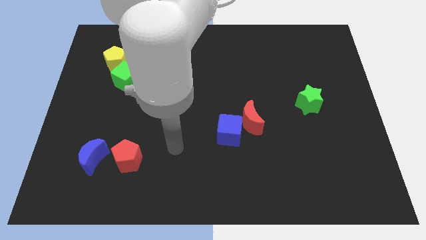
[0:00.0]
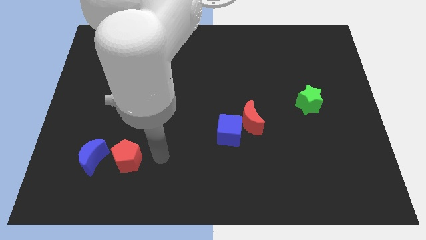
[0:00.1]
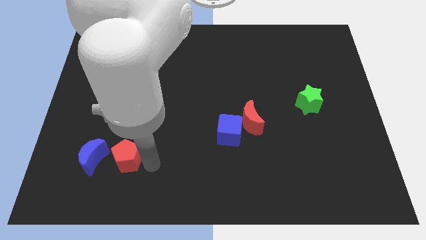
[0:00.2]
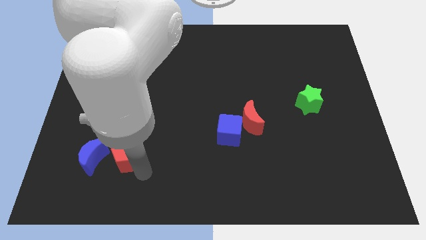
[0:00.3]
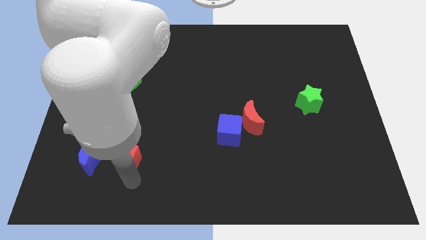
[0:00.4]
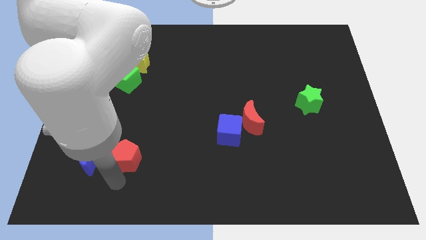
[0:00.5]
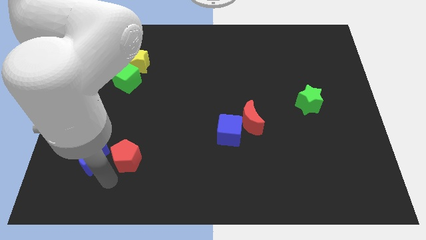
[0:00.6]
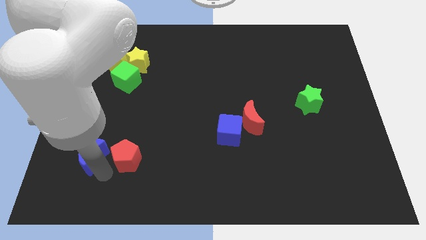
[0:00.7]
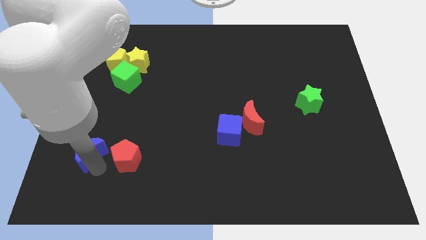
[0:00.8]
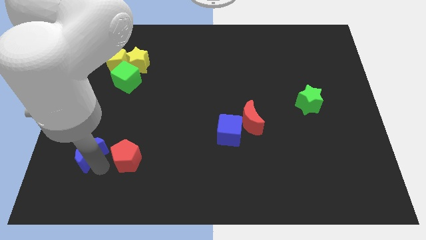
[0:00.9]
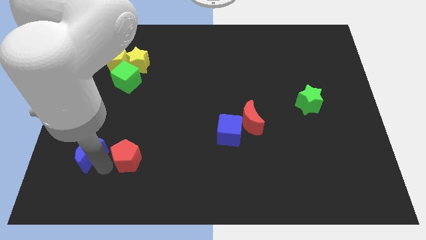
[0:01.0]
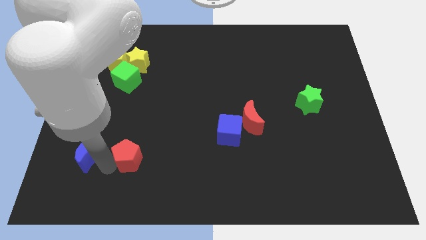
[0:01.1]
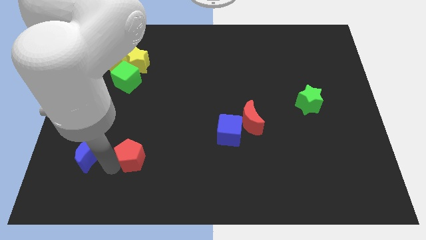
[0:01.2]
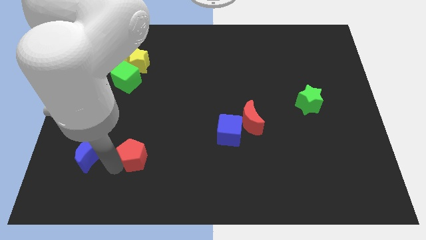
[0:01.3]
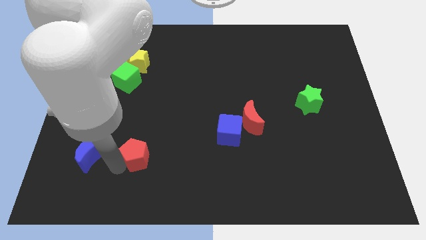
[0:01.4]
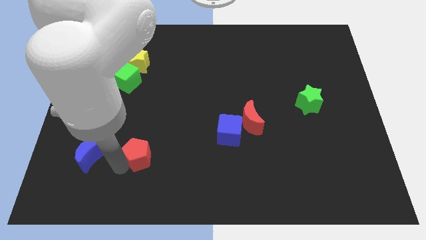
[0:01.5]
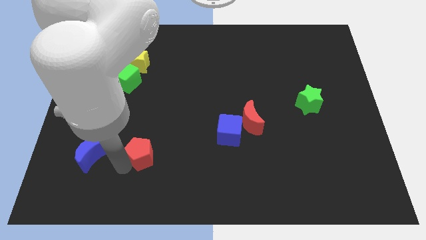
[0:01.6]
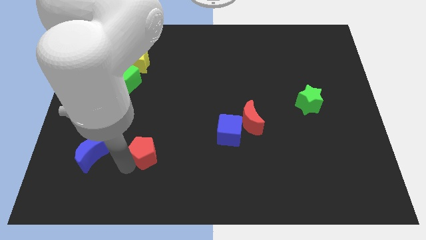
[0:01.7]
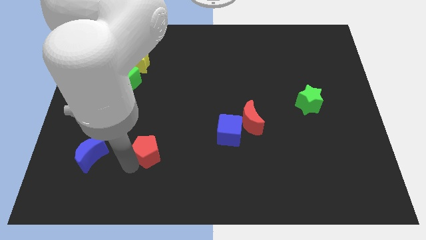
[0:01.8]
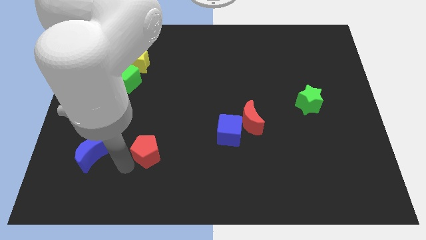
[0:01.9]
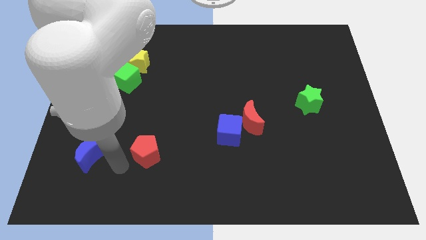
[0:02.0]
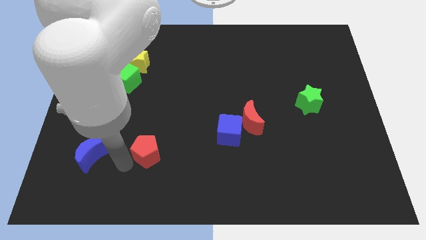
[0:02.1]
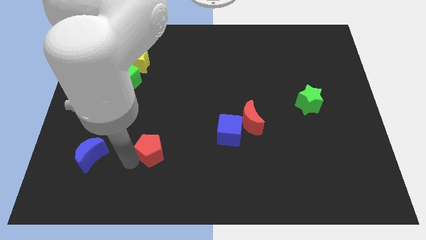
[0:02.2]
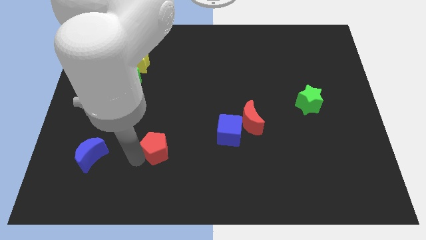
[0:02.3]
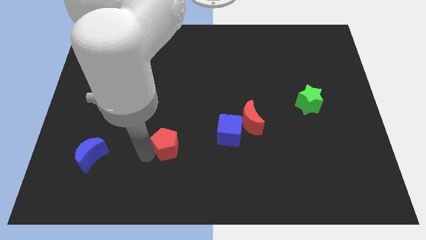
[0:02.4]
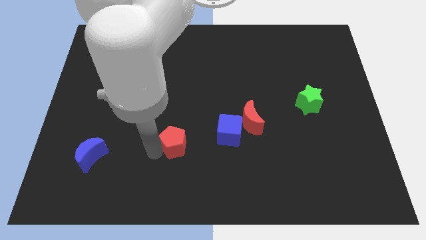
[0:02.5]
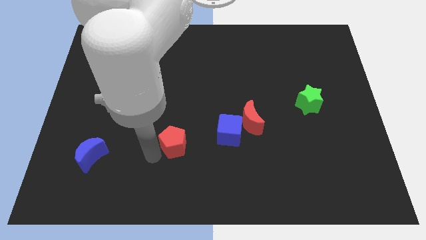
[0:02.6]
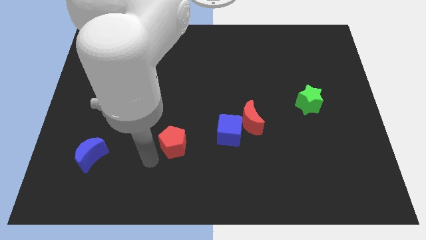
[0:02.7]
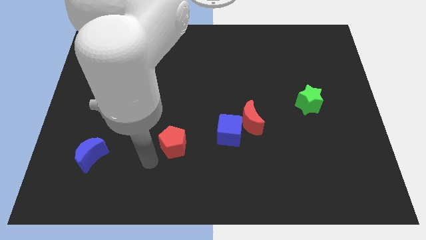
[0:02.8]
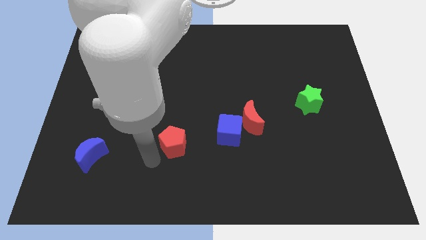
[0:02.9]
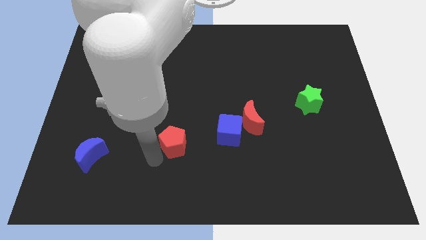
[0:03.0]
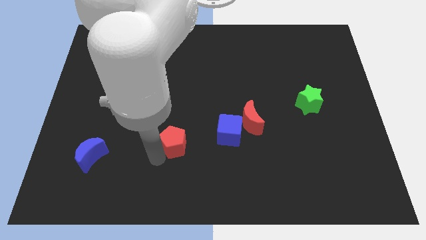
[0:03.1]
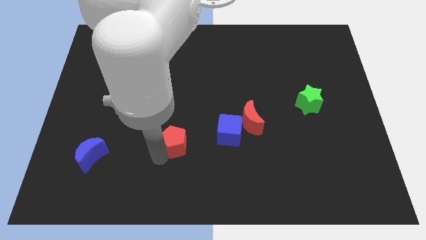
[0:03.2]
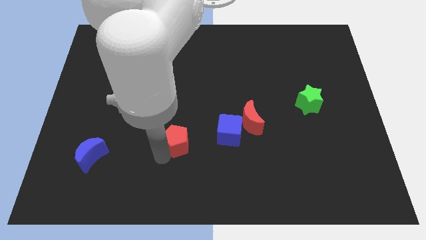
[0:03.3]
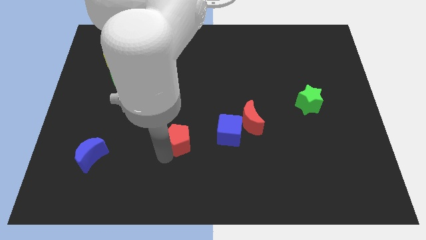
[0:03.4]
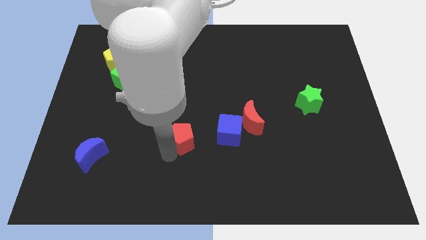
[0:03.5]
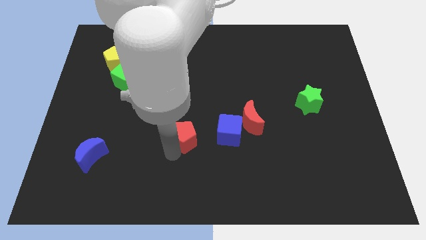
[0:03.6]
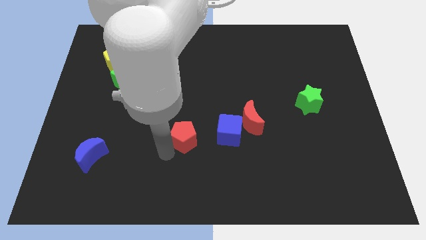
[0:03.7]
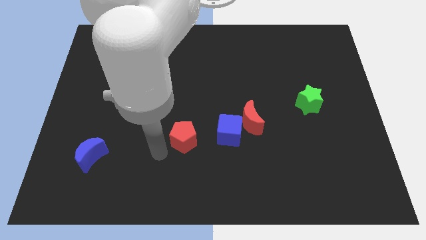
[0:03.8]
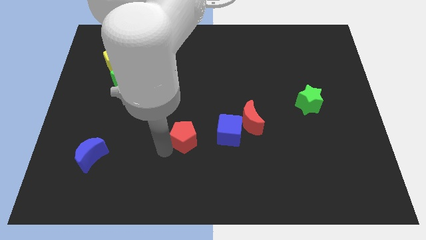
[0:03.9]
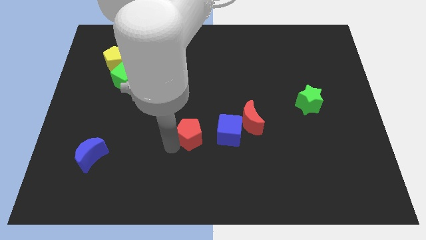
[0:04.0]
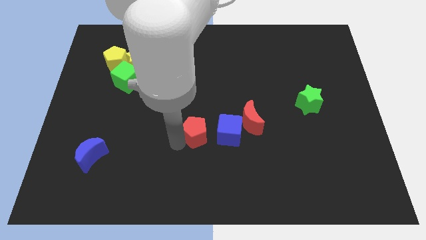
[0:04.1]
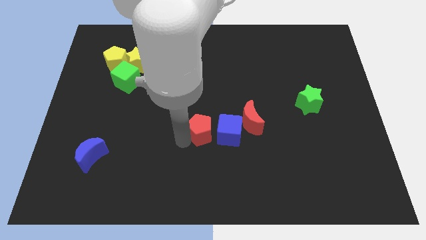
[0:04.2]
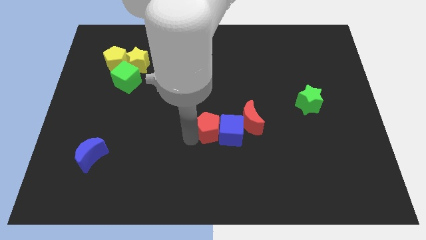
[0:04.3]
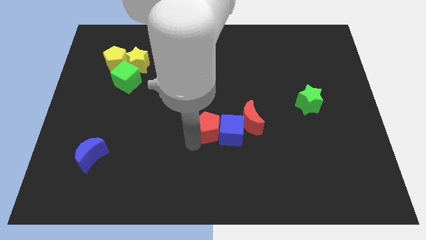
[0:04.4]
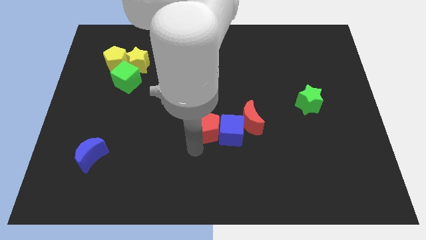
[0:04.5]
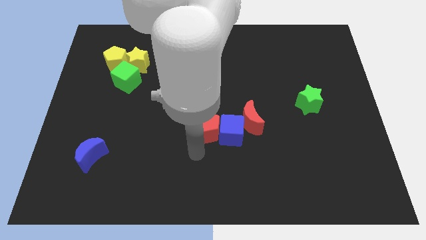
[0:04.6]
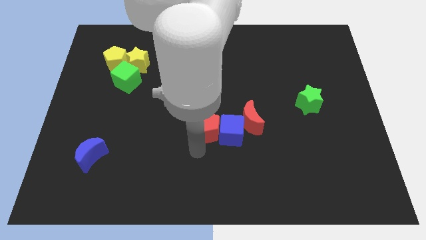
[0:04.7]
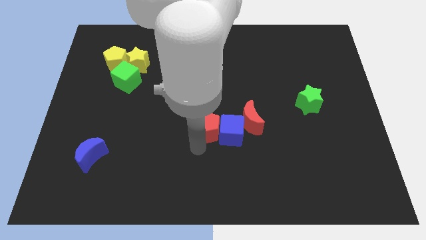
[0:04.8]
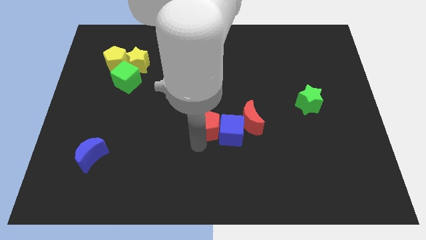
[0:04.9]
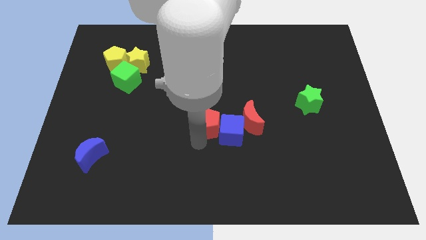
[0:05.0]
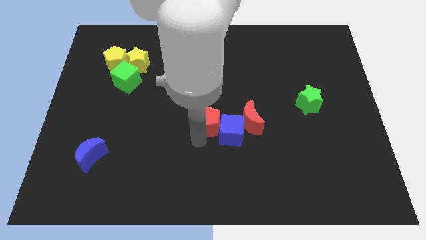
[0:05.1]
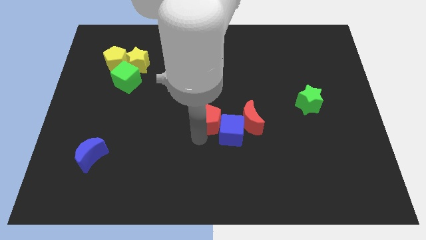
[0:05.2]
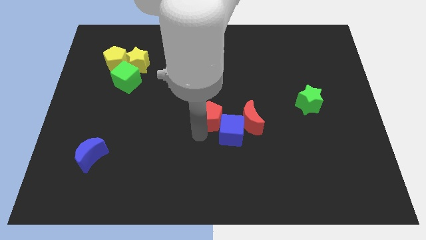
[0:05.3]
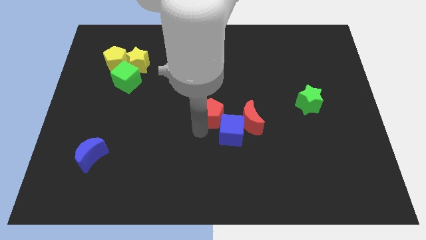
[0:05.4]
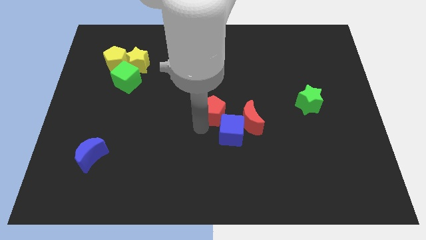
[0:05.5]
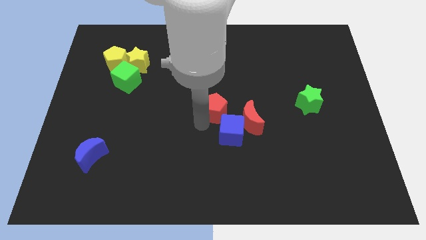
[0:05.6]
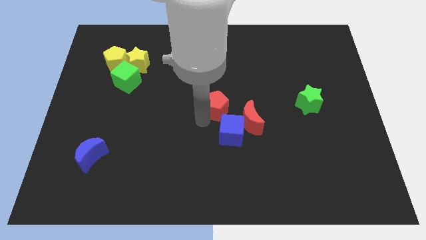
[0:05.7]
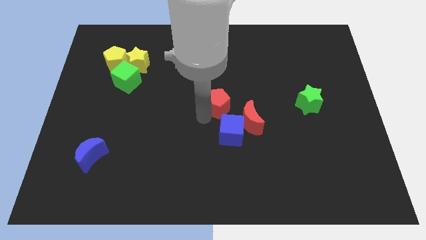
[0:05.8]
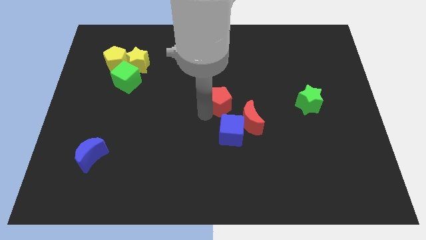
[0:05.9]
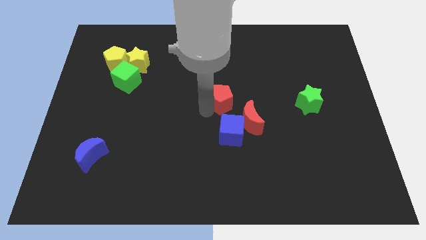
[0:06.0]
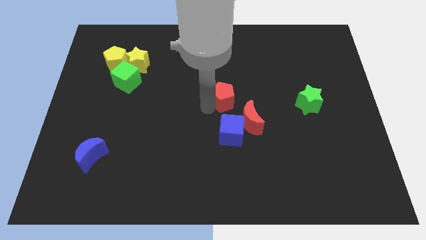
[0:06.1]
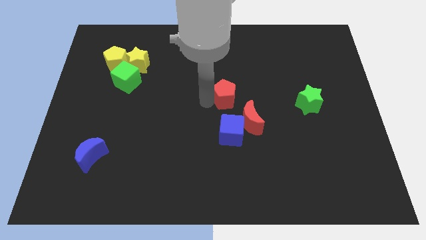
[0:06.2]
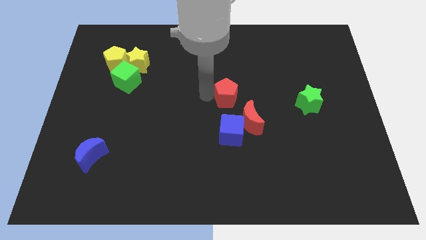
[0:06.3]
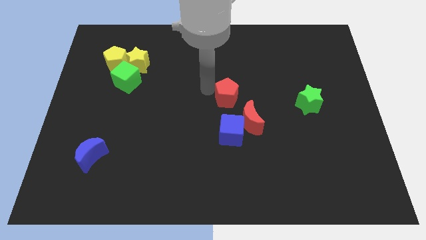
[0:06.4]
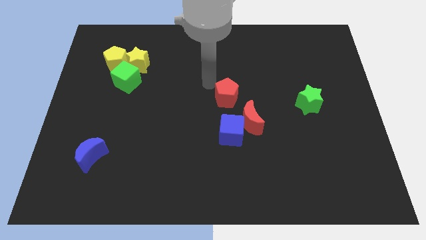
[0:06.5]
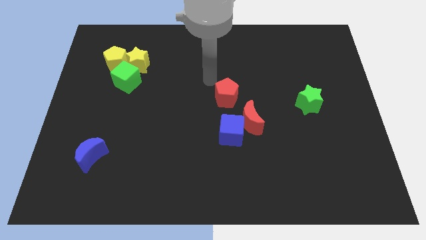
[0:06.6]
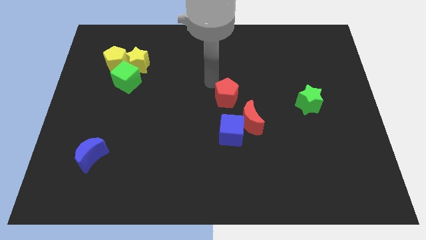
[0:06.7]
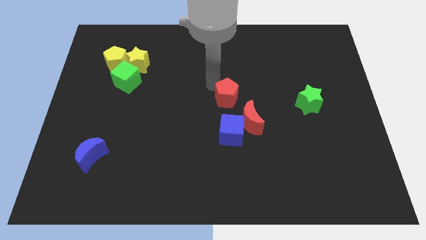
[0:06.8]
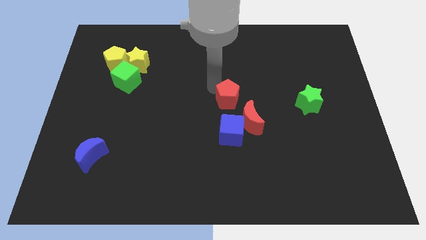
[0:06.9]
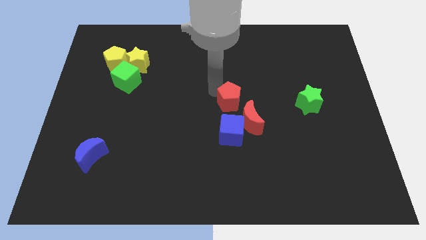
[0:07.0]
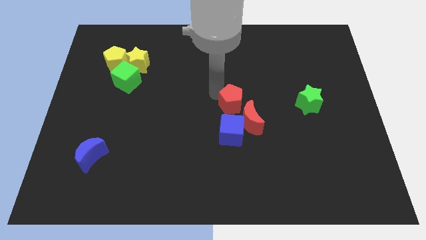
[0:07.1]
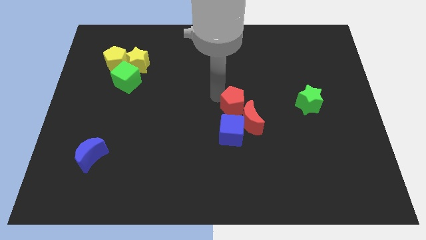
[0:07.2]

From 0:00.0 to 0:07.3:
put the red pentagon close to the red moon
